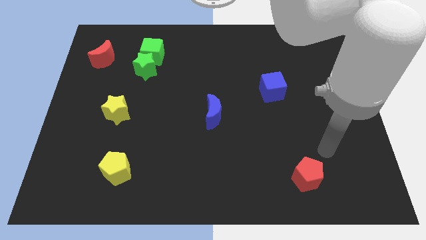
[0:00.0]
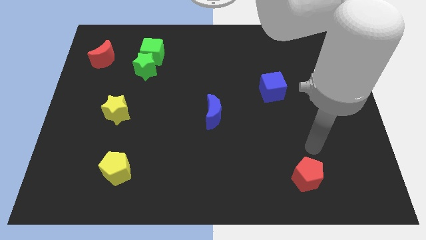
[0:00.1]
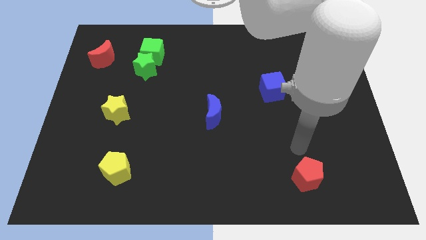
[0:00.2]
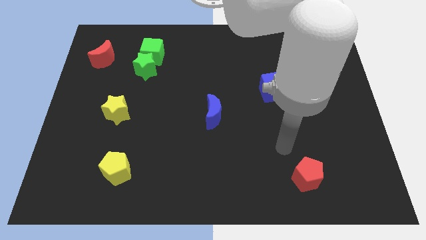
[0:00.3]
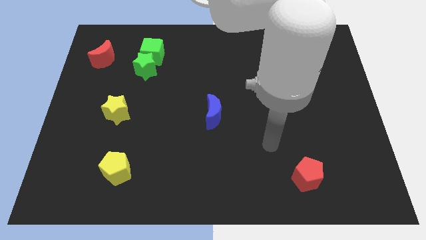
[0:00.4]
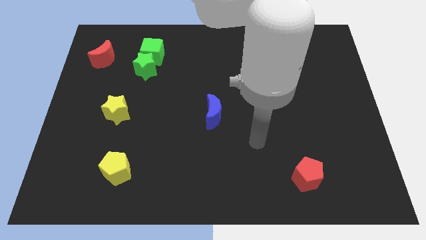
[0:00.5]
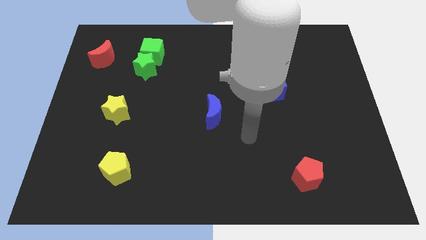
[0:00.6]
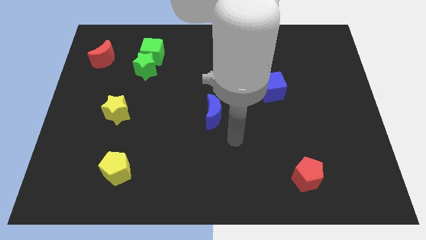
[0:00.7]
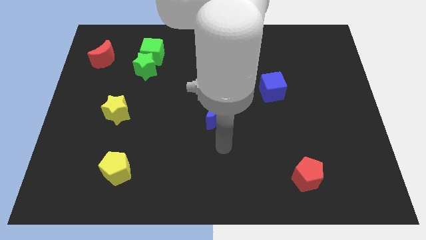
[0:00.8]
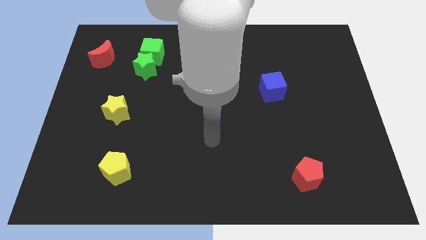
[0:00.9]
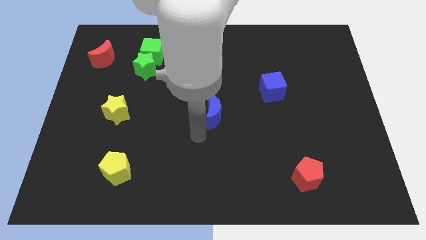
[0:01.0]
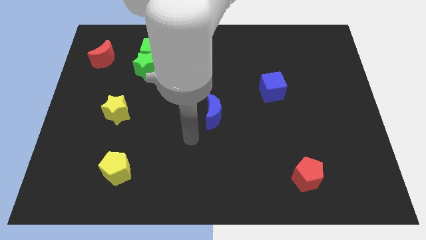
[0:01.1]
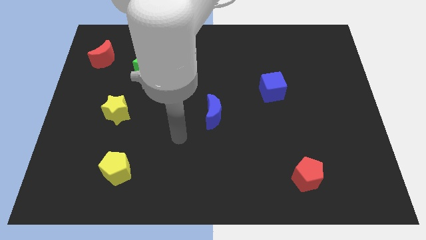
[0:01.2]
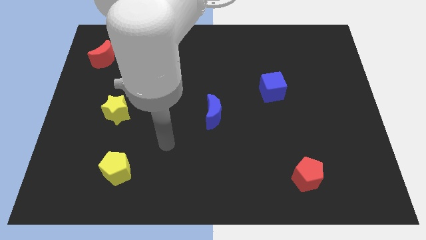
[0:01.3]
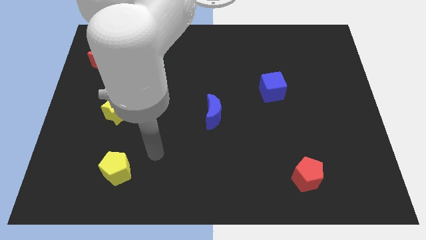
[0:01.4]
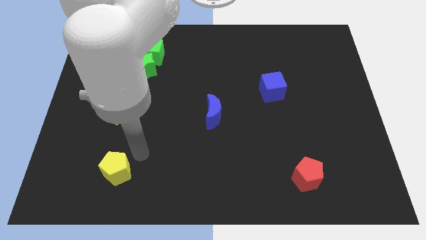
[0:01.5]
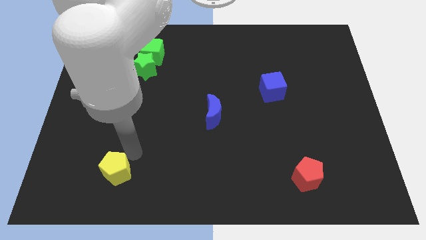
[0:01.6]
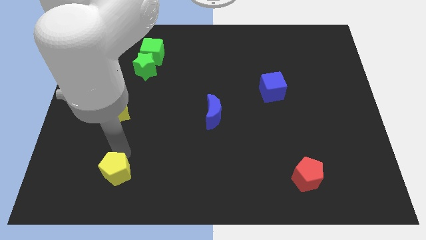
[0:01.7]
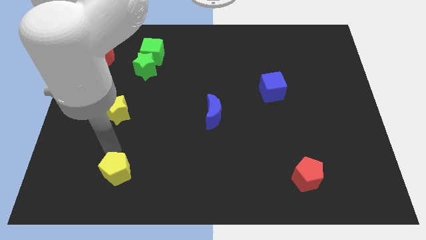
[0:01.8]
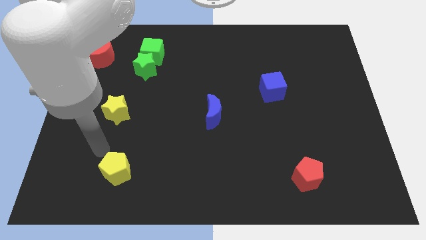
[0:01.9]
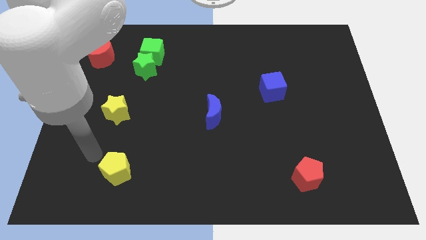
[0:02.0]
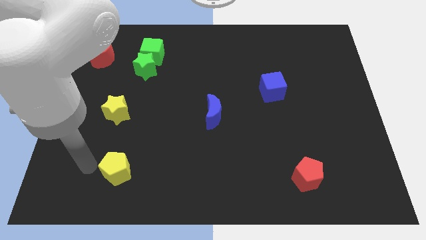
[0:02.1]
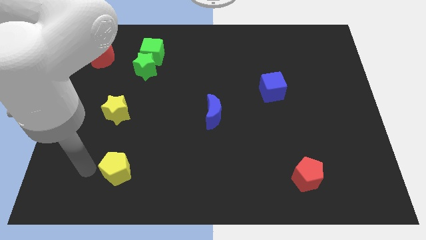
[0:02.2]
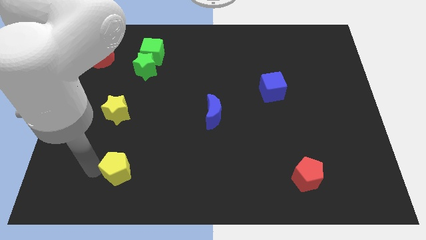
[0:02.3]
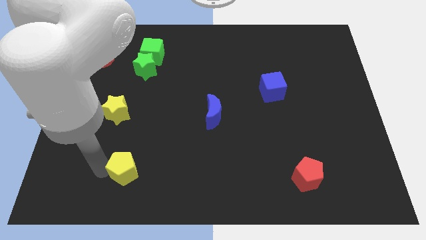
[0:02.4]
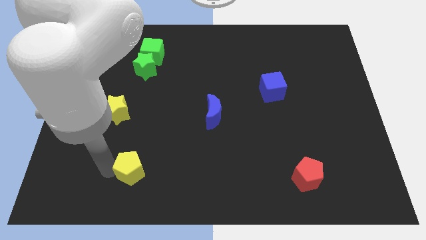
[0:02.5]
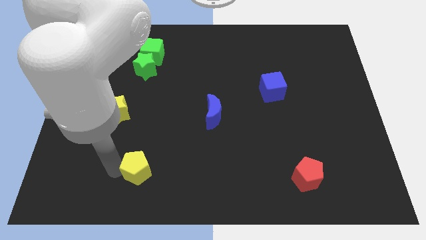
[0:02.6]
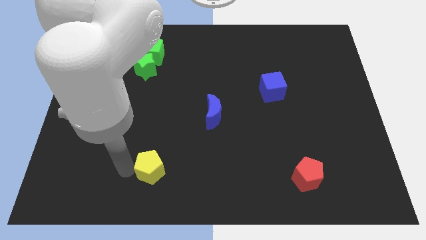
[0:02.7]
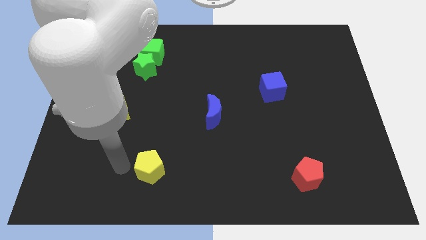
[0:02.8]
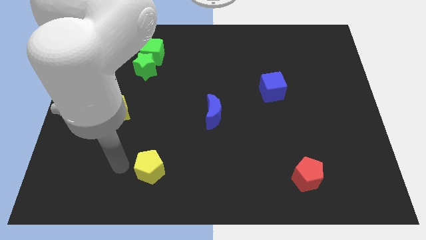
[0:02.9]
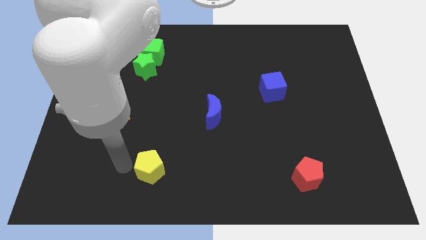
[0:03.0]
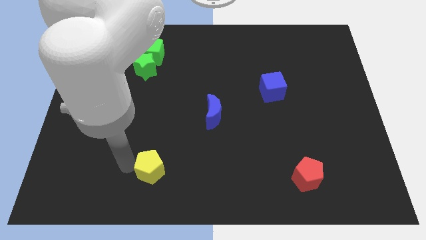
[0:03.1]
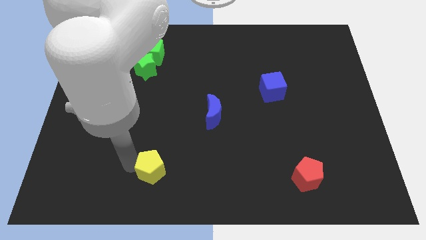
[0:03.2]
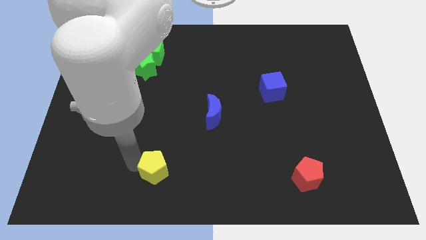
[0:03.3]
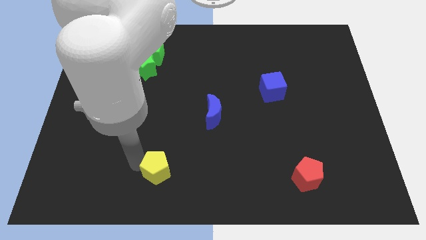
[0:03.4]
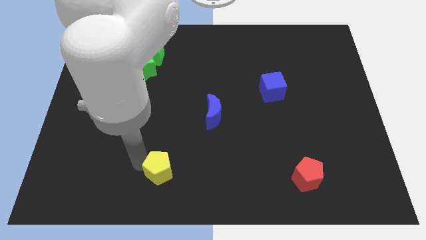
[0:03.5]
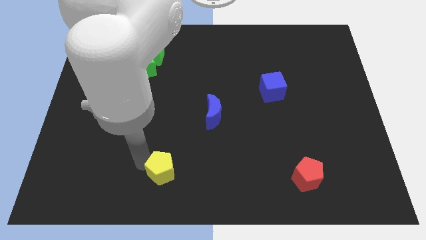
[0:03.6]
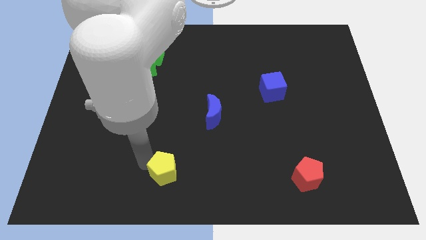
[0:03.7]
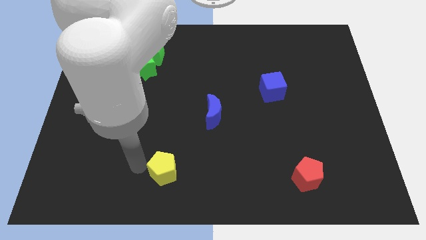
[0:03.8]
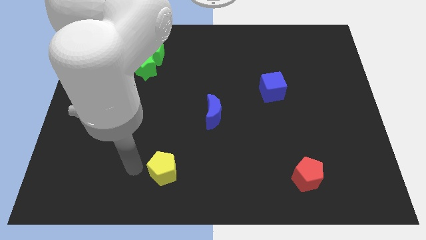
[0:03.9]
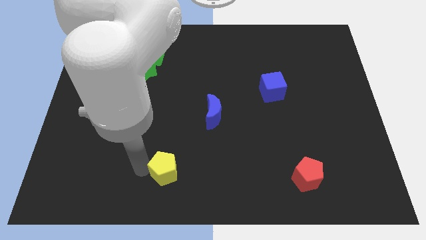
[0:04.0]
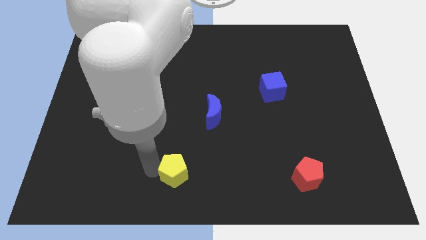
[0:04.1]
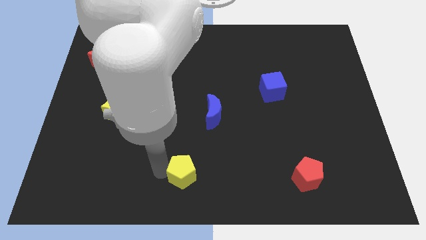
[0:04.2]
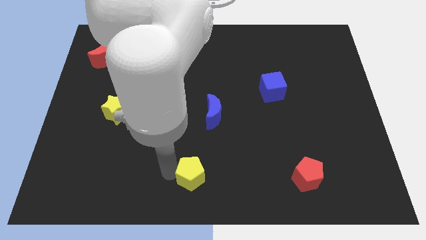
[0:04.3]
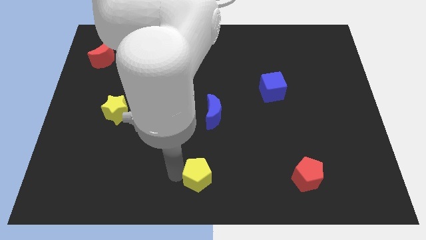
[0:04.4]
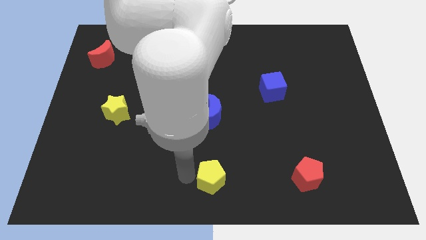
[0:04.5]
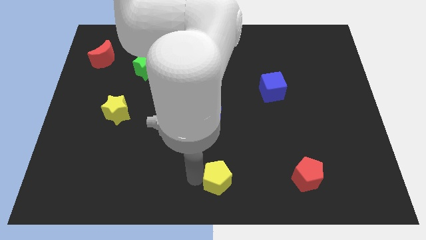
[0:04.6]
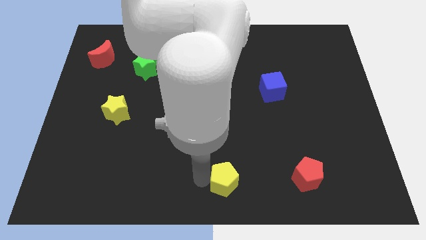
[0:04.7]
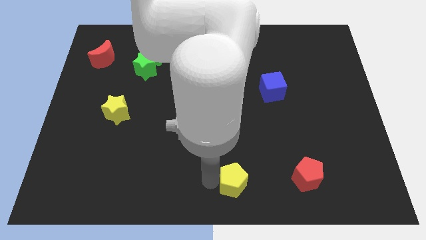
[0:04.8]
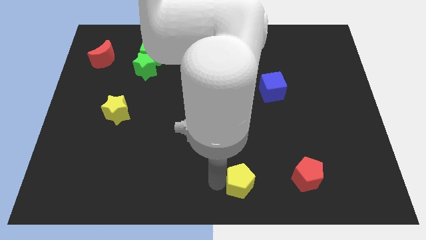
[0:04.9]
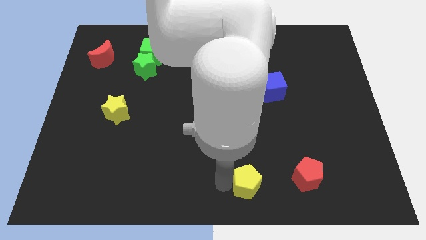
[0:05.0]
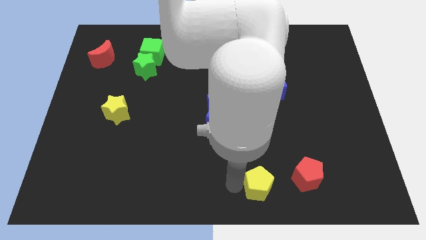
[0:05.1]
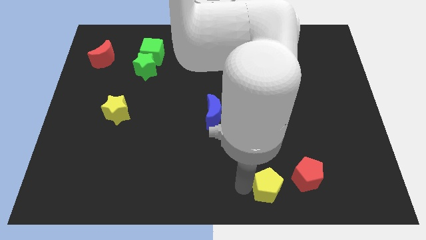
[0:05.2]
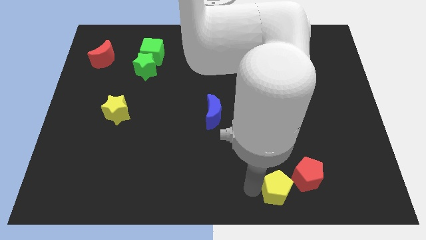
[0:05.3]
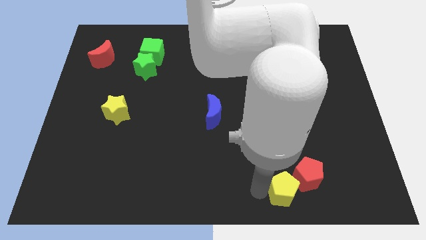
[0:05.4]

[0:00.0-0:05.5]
slide the yellow pentagon towards the red pentagon

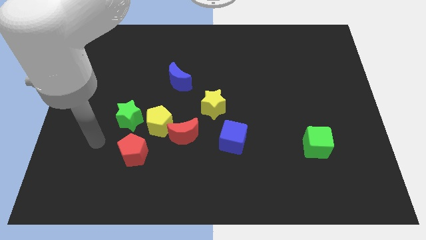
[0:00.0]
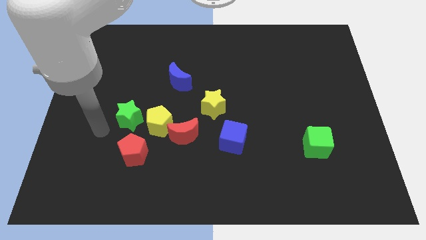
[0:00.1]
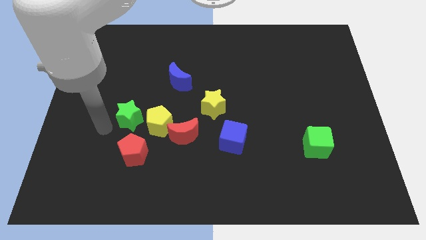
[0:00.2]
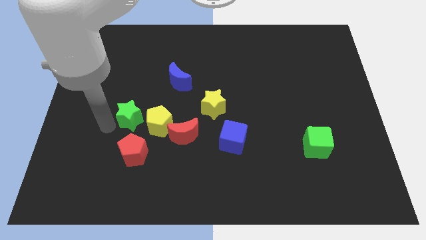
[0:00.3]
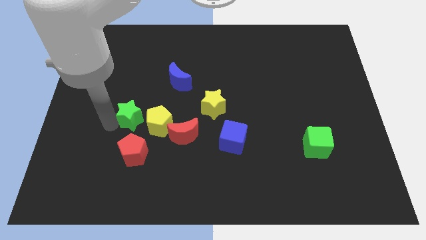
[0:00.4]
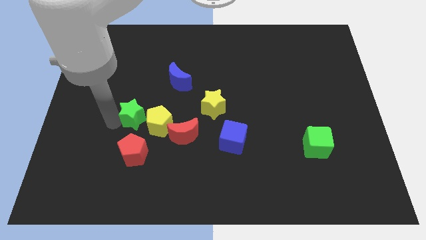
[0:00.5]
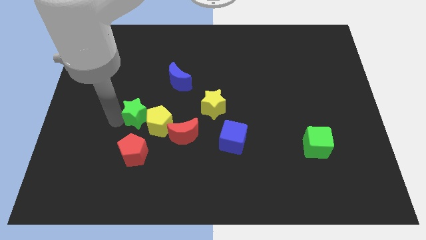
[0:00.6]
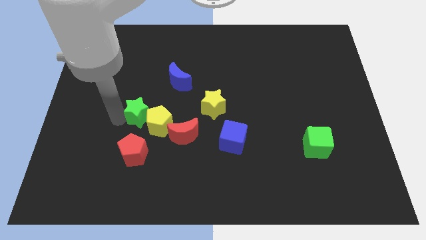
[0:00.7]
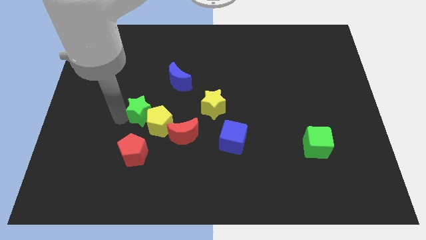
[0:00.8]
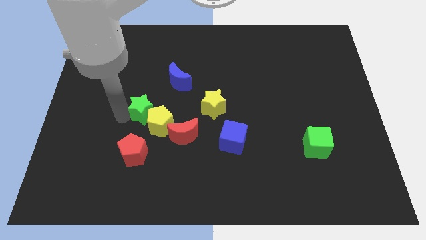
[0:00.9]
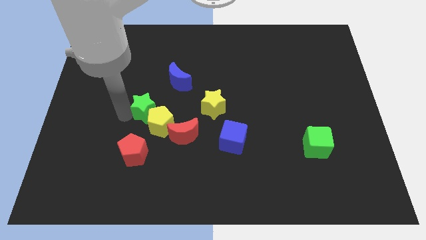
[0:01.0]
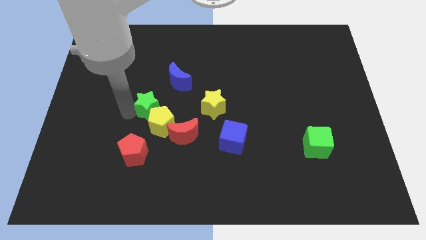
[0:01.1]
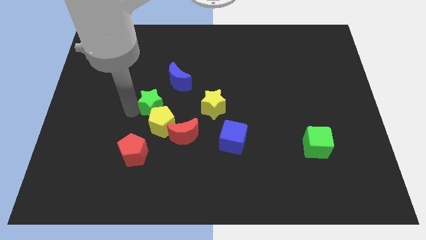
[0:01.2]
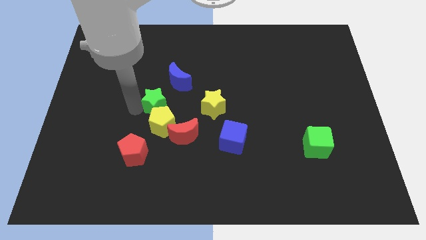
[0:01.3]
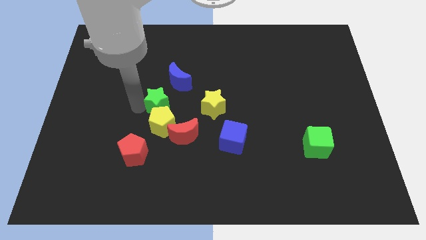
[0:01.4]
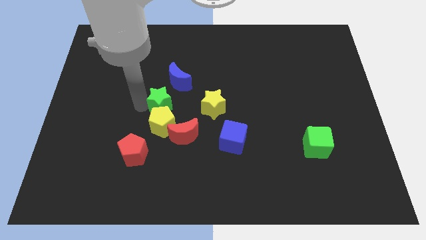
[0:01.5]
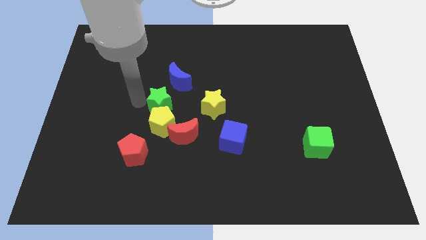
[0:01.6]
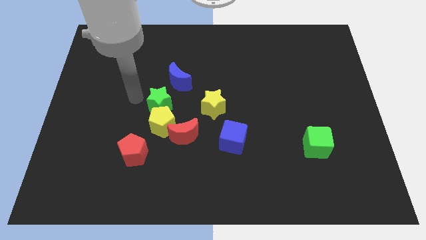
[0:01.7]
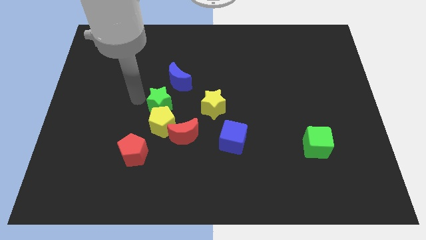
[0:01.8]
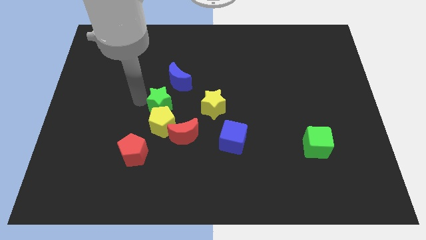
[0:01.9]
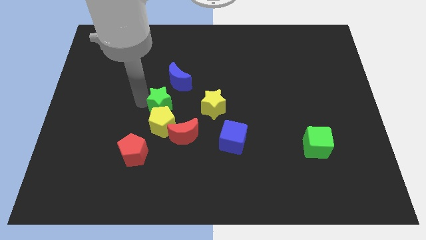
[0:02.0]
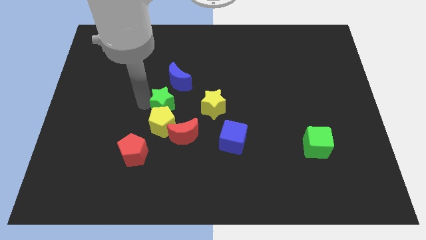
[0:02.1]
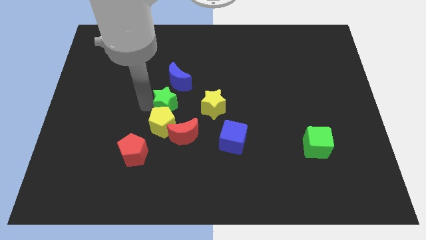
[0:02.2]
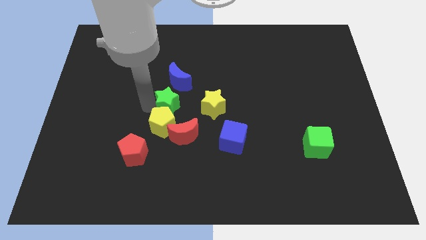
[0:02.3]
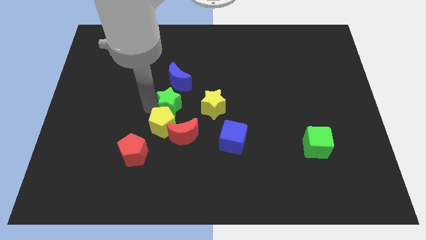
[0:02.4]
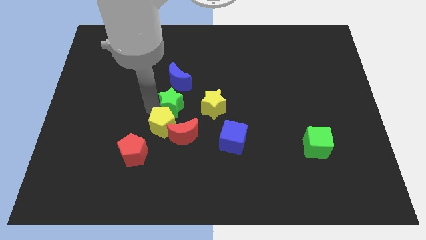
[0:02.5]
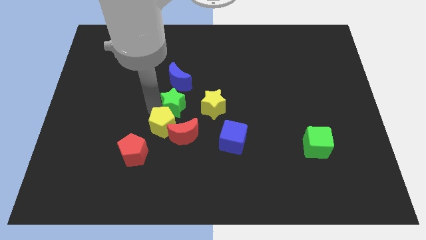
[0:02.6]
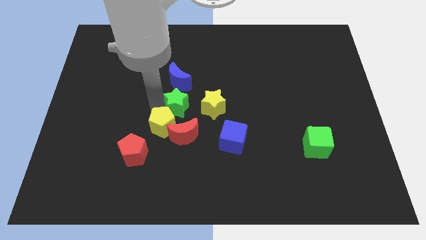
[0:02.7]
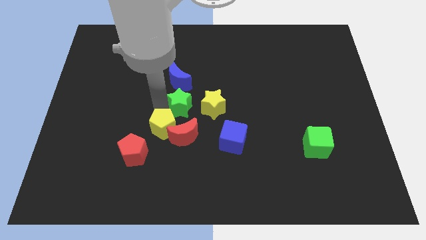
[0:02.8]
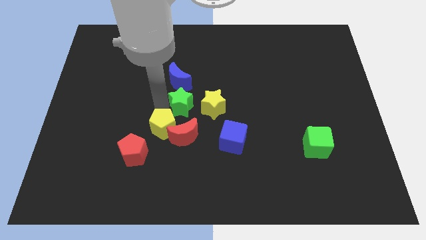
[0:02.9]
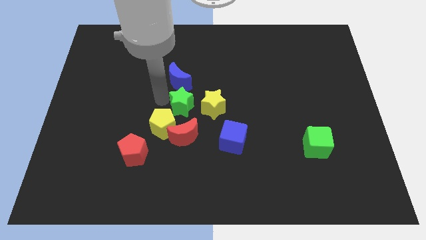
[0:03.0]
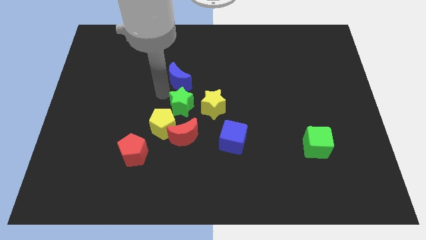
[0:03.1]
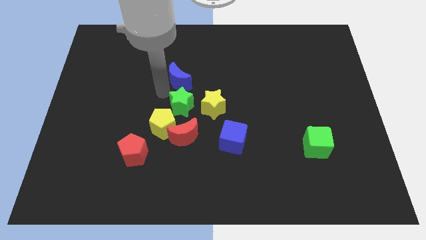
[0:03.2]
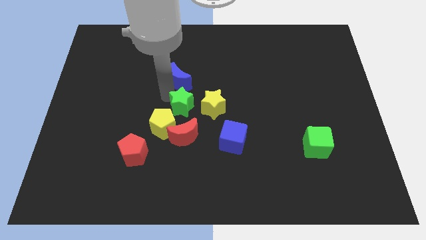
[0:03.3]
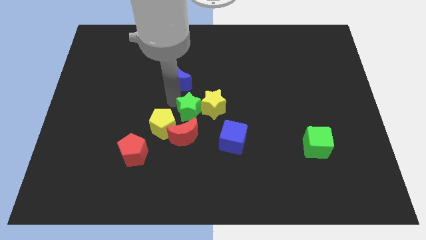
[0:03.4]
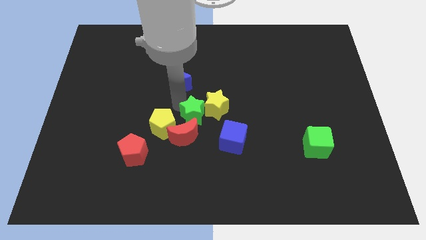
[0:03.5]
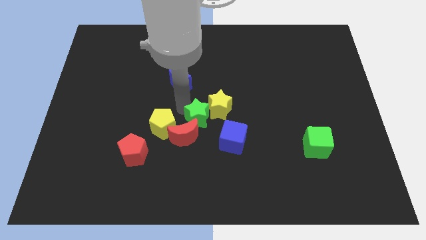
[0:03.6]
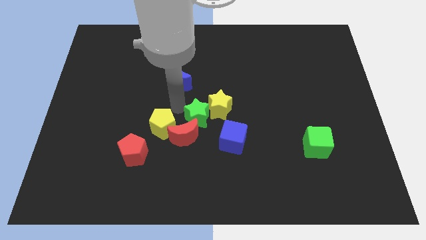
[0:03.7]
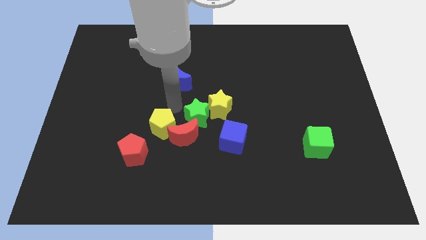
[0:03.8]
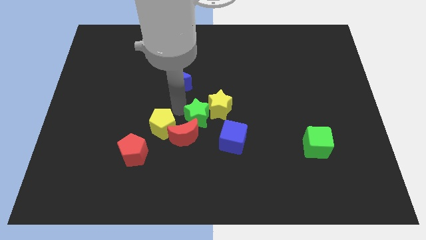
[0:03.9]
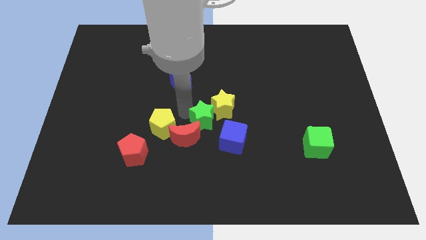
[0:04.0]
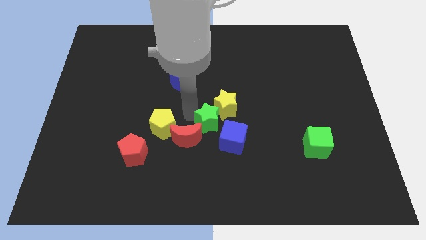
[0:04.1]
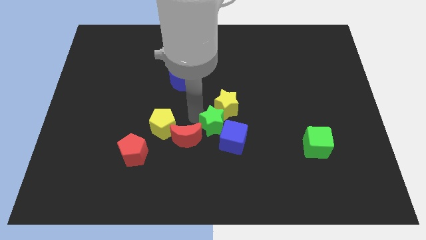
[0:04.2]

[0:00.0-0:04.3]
move the green star next to the blue cube
